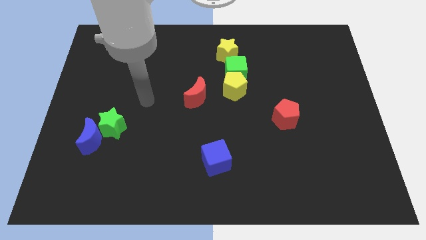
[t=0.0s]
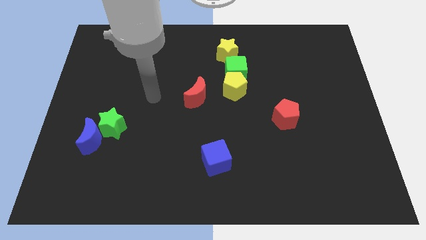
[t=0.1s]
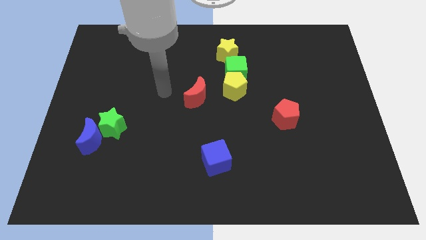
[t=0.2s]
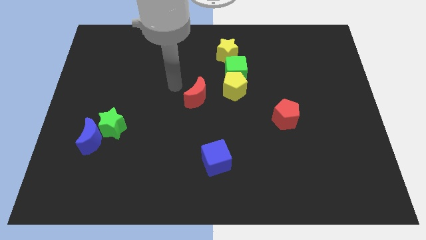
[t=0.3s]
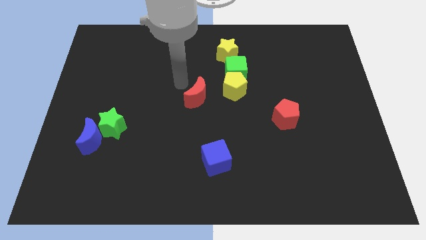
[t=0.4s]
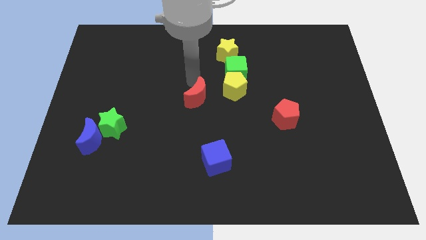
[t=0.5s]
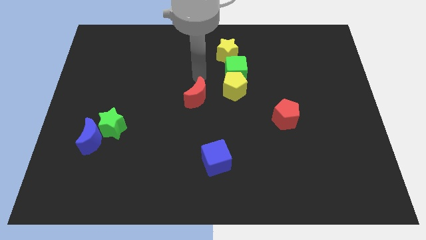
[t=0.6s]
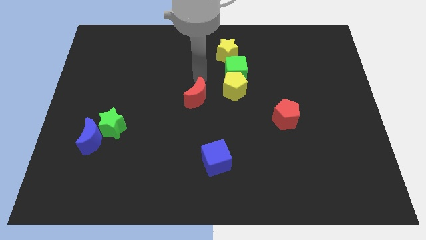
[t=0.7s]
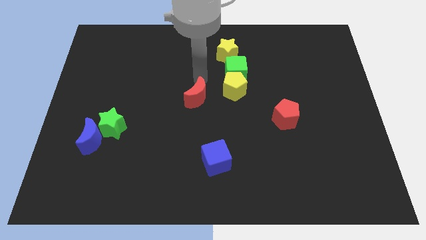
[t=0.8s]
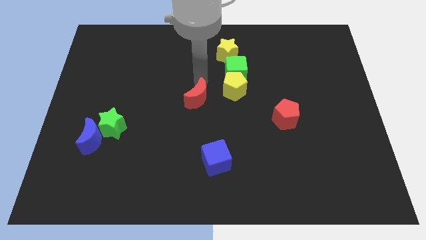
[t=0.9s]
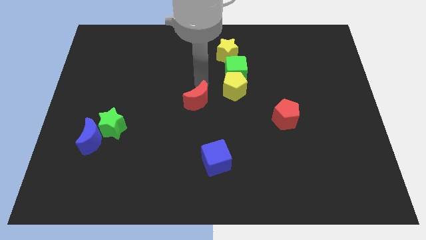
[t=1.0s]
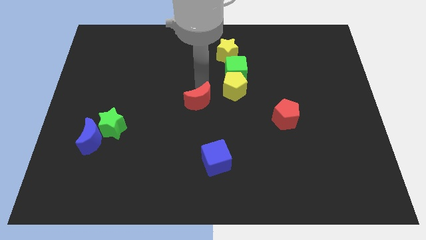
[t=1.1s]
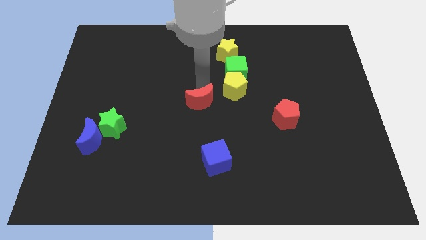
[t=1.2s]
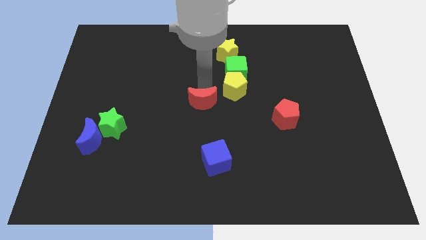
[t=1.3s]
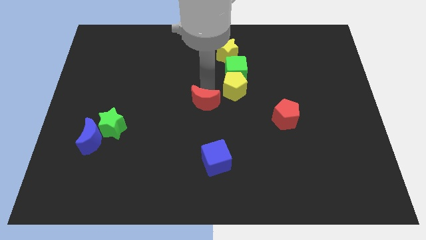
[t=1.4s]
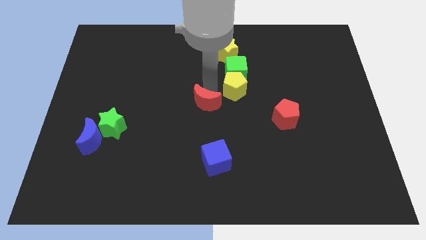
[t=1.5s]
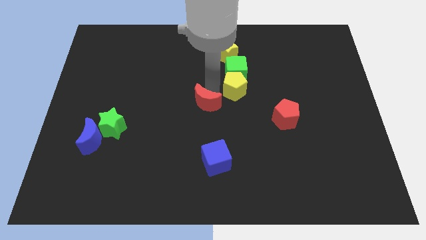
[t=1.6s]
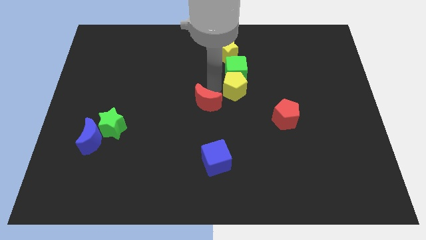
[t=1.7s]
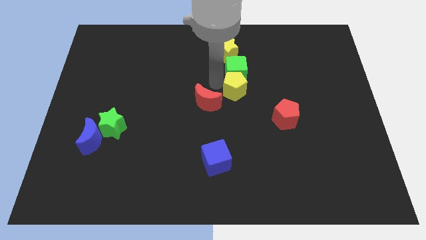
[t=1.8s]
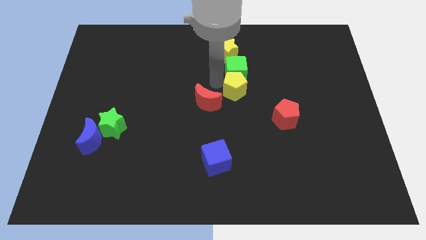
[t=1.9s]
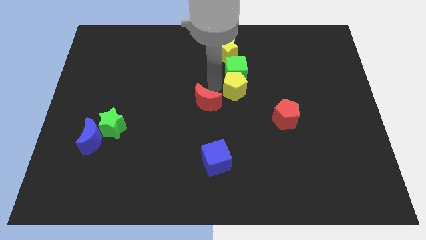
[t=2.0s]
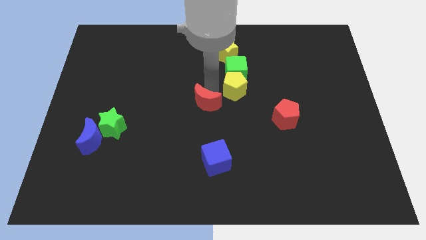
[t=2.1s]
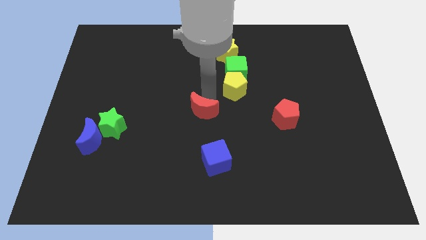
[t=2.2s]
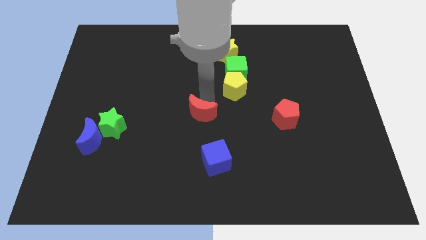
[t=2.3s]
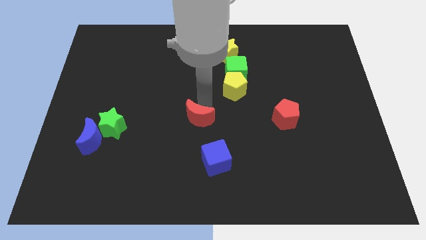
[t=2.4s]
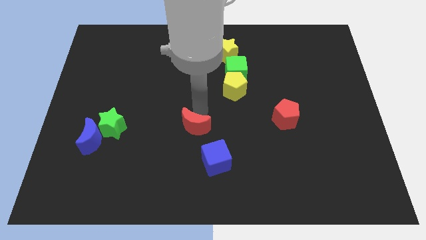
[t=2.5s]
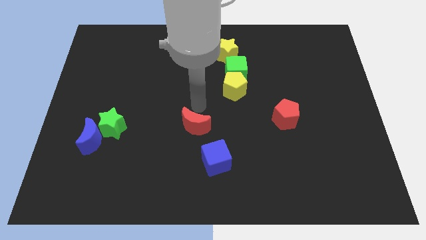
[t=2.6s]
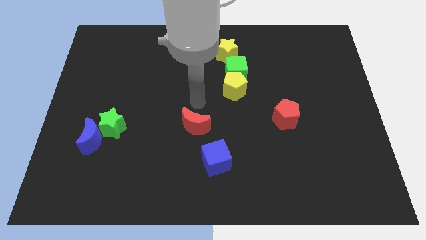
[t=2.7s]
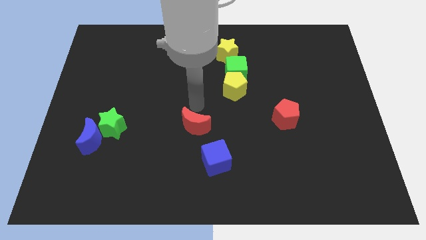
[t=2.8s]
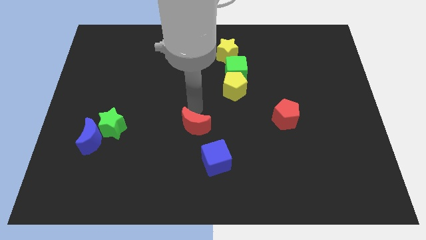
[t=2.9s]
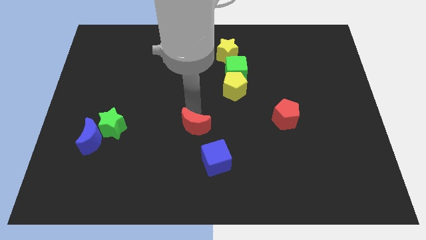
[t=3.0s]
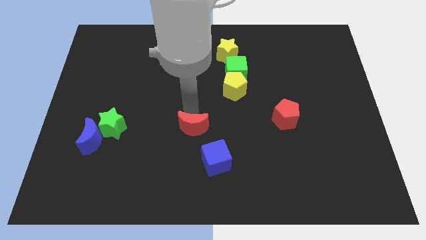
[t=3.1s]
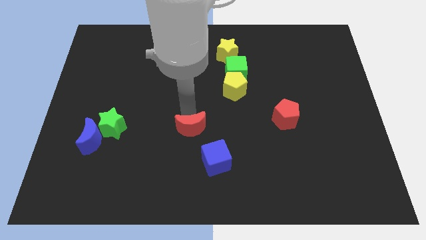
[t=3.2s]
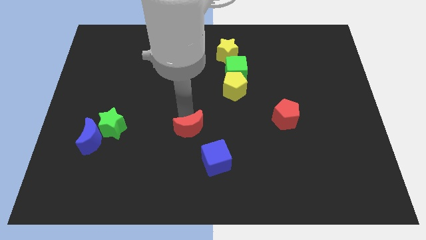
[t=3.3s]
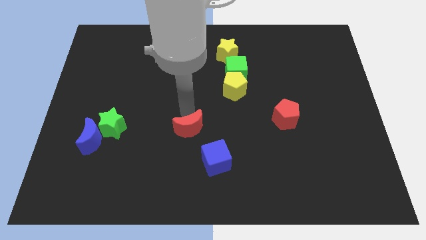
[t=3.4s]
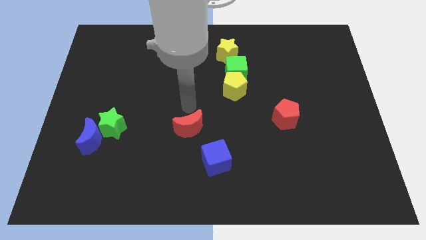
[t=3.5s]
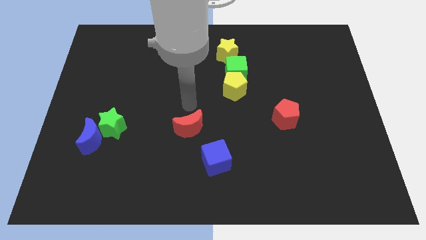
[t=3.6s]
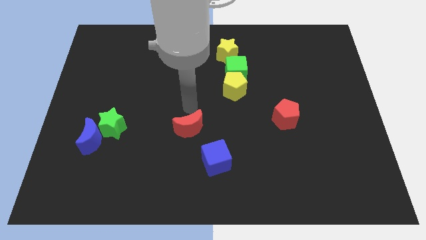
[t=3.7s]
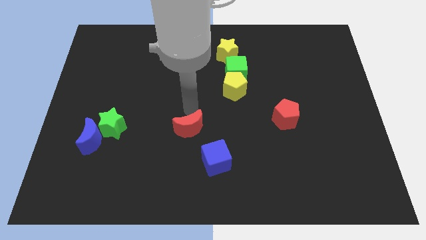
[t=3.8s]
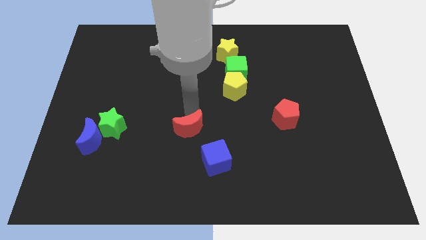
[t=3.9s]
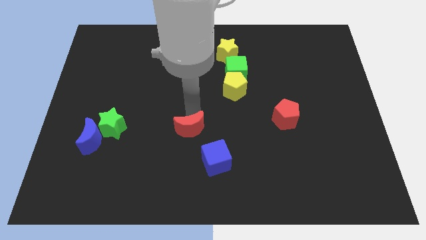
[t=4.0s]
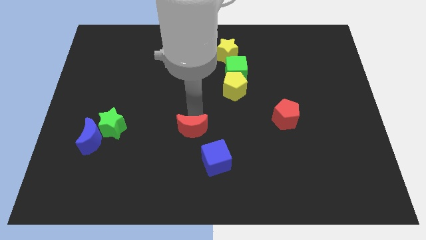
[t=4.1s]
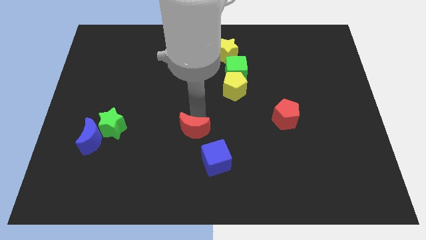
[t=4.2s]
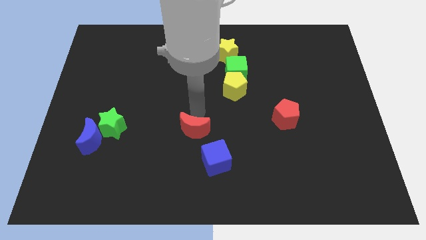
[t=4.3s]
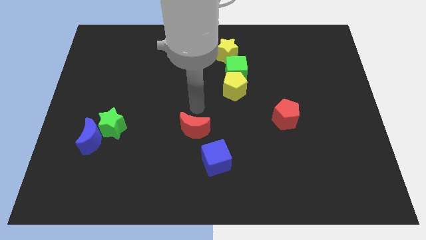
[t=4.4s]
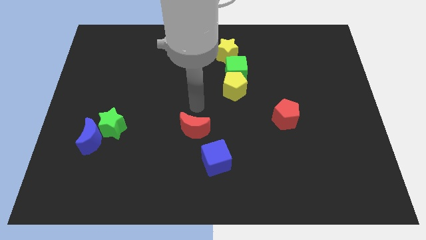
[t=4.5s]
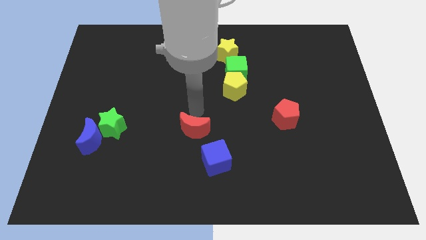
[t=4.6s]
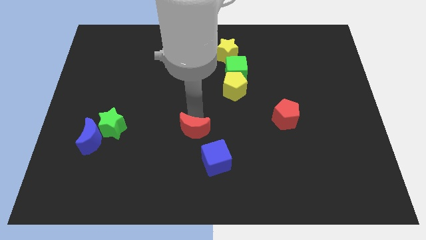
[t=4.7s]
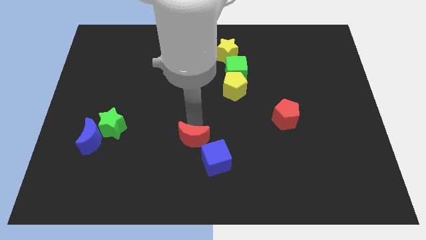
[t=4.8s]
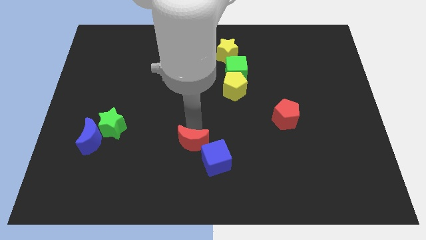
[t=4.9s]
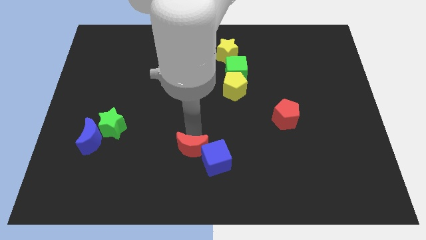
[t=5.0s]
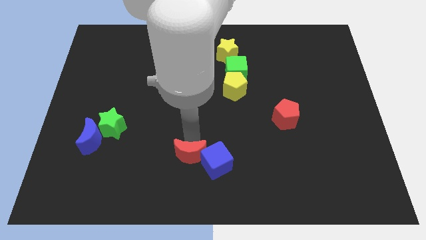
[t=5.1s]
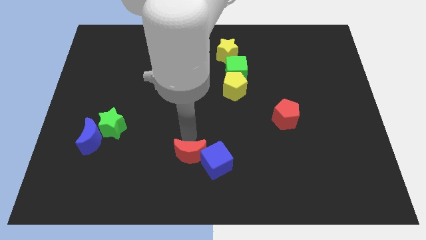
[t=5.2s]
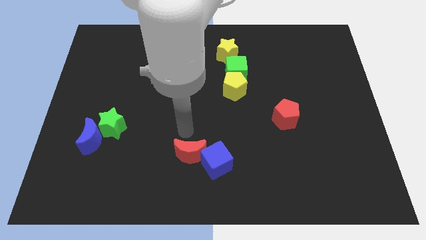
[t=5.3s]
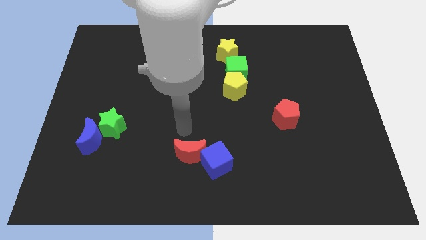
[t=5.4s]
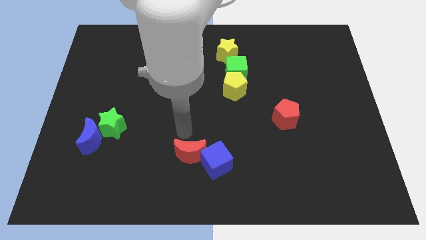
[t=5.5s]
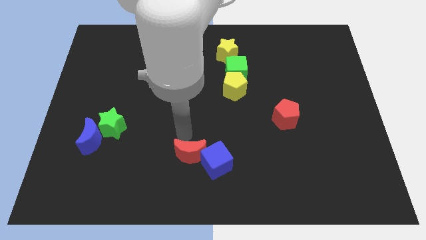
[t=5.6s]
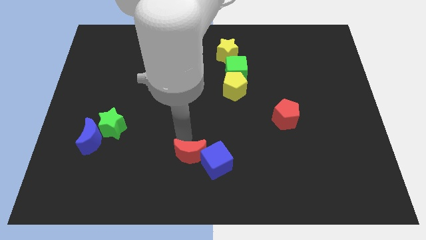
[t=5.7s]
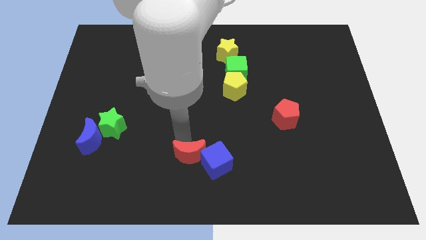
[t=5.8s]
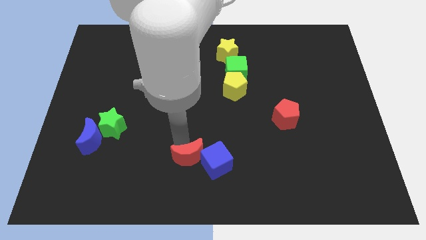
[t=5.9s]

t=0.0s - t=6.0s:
push the red moon to the bottom
